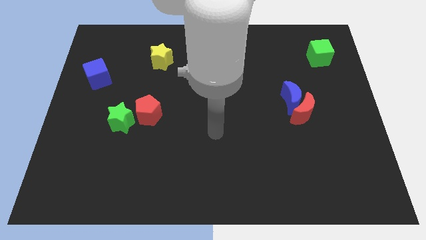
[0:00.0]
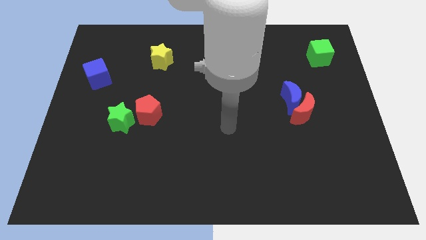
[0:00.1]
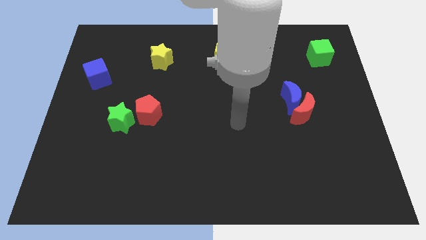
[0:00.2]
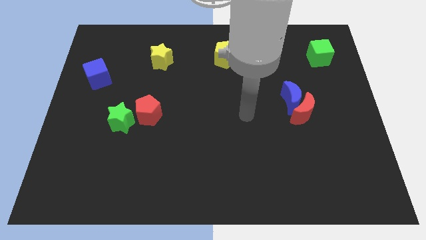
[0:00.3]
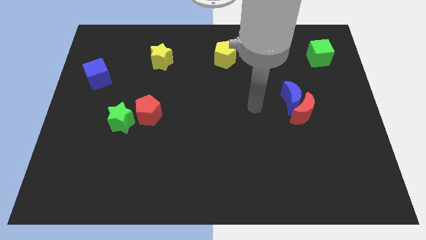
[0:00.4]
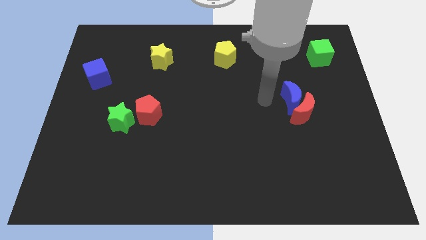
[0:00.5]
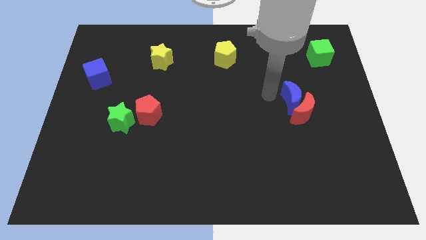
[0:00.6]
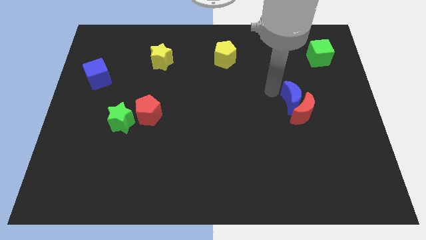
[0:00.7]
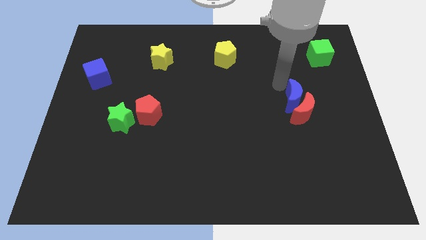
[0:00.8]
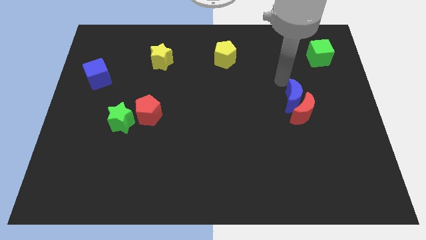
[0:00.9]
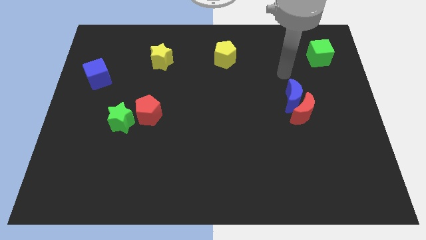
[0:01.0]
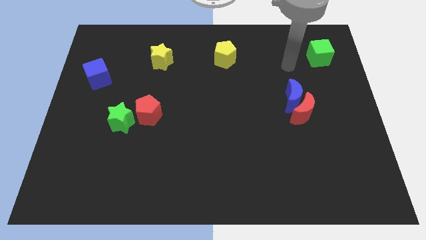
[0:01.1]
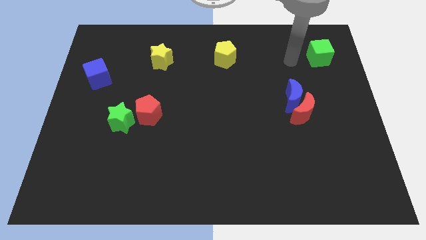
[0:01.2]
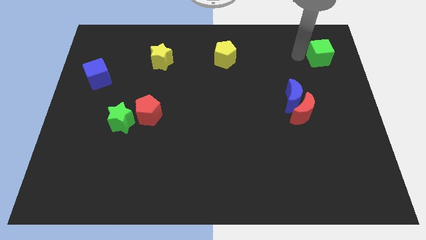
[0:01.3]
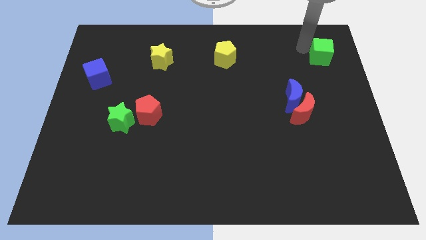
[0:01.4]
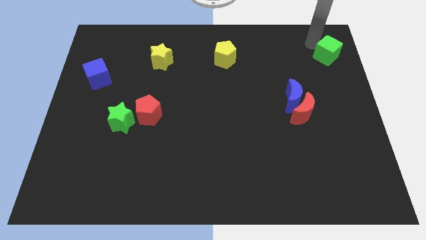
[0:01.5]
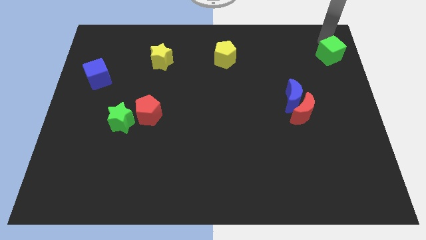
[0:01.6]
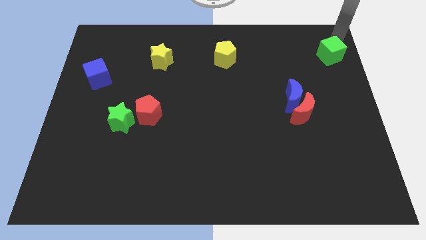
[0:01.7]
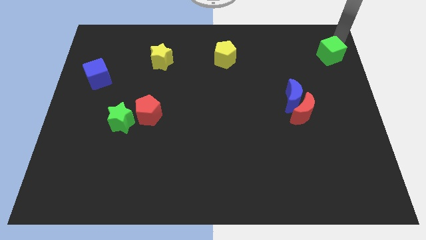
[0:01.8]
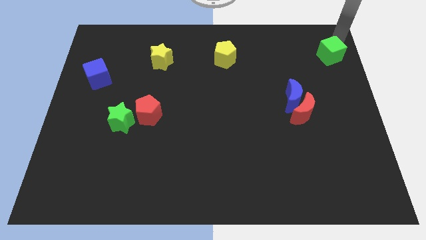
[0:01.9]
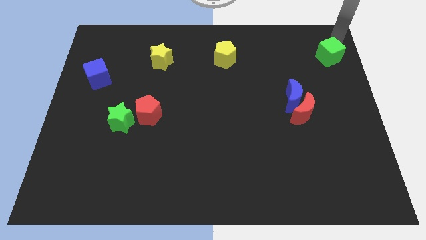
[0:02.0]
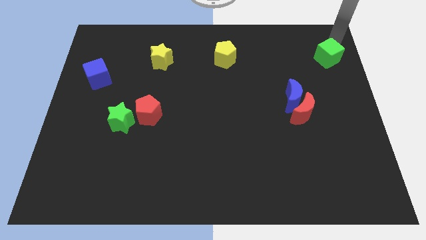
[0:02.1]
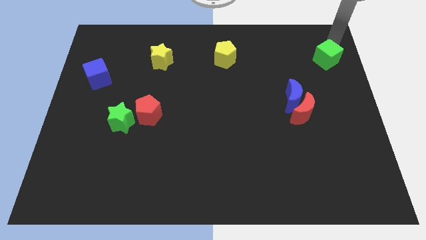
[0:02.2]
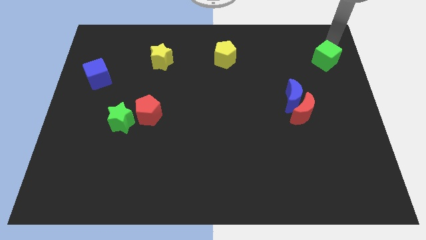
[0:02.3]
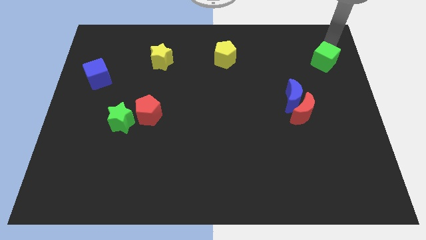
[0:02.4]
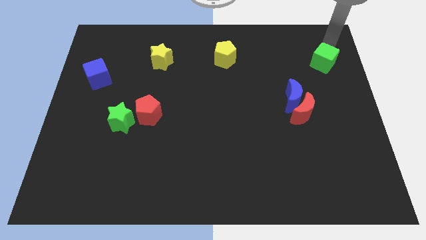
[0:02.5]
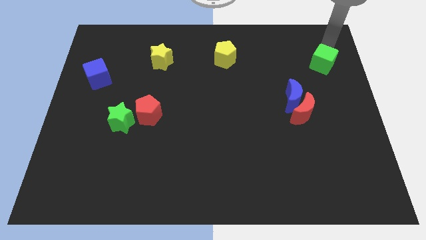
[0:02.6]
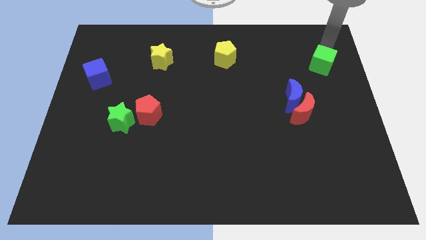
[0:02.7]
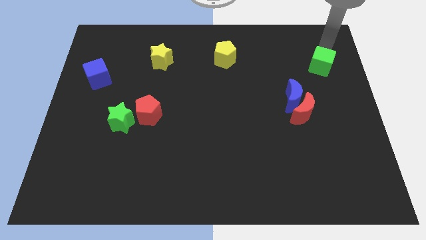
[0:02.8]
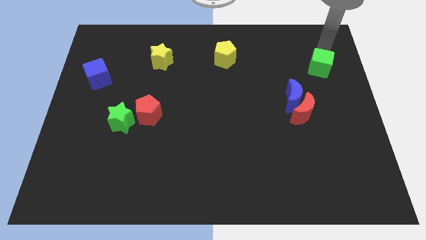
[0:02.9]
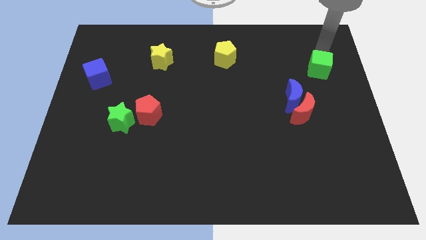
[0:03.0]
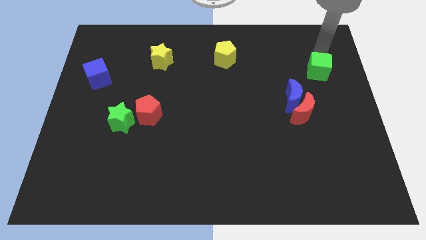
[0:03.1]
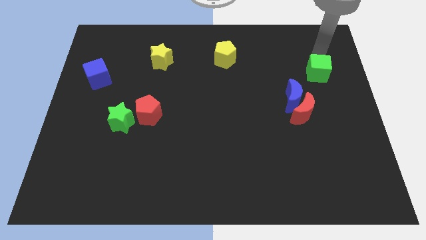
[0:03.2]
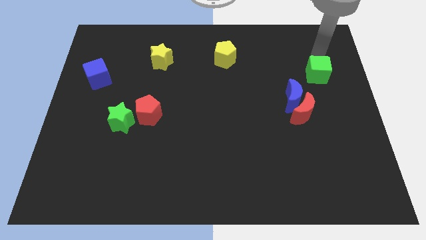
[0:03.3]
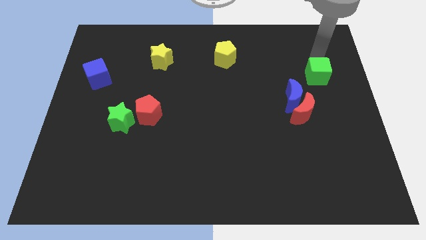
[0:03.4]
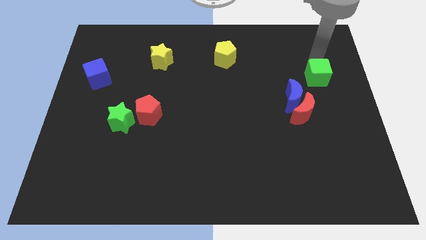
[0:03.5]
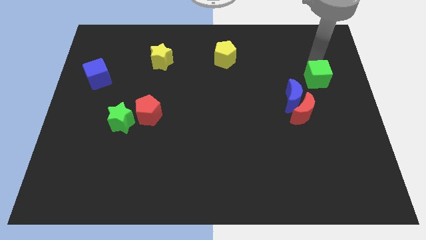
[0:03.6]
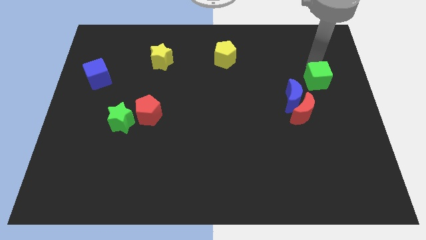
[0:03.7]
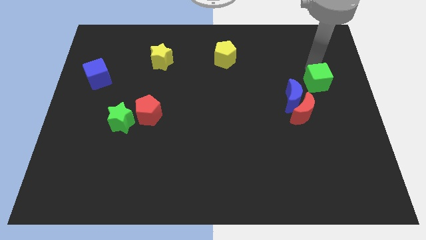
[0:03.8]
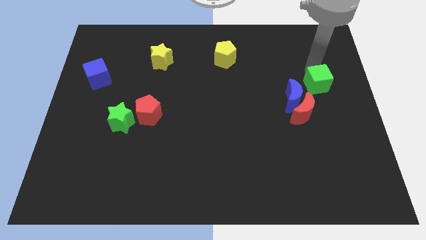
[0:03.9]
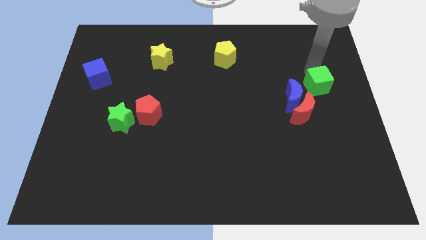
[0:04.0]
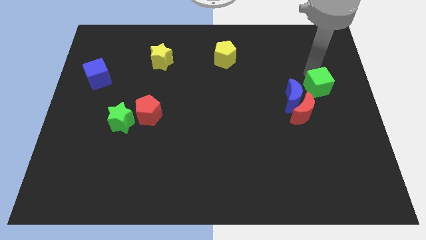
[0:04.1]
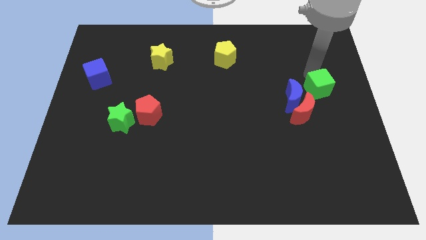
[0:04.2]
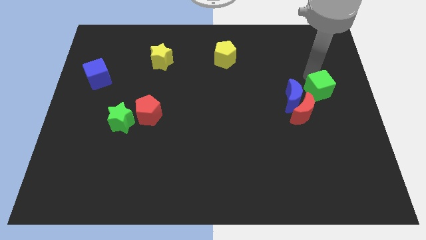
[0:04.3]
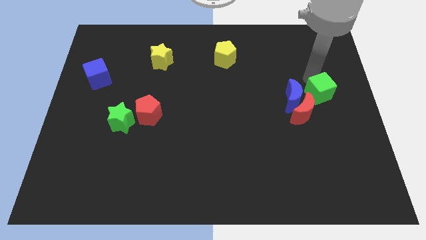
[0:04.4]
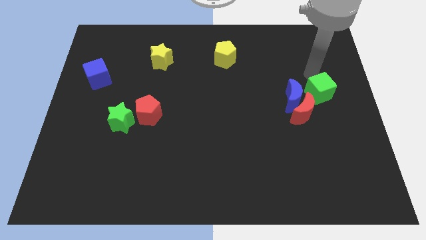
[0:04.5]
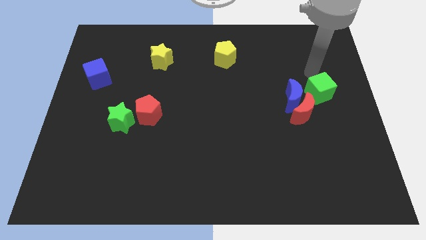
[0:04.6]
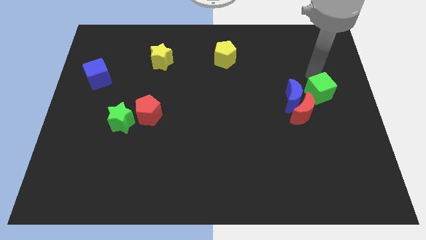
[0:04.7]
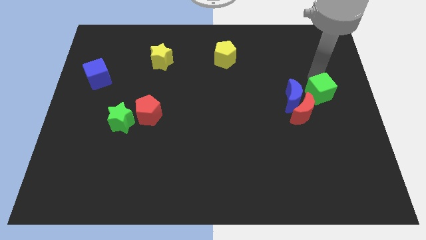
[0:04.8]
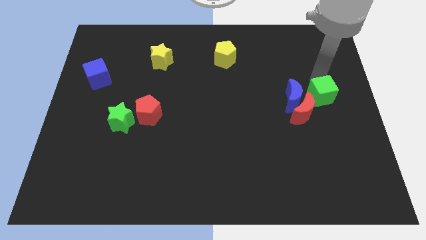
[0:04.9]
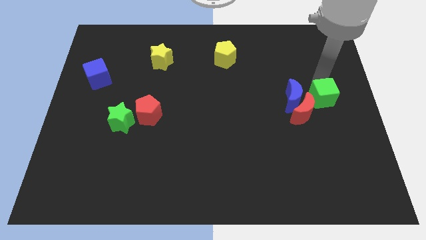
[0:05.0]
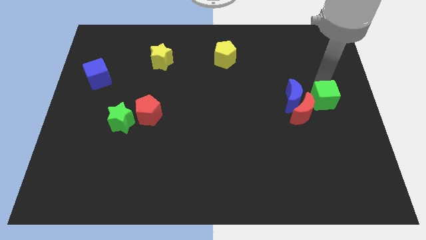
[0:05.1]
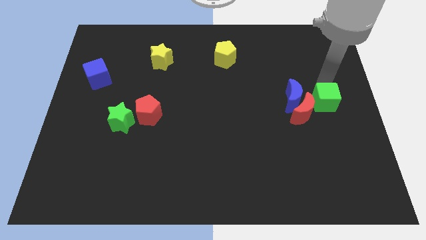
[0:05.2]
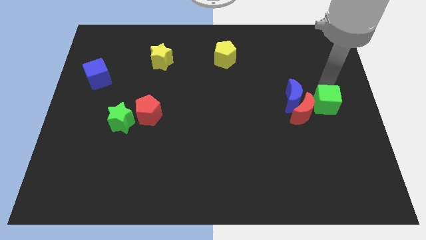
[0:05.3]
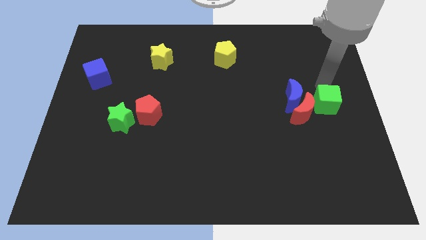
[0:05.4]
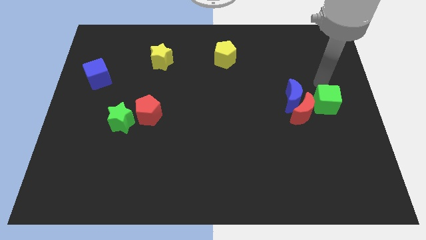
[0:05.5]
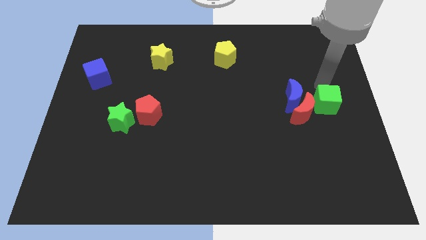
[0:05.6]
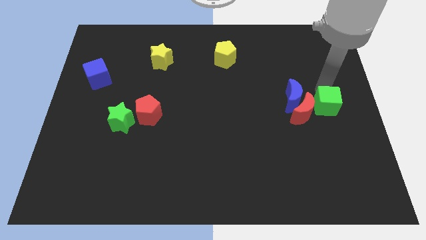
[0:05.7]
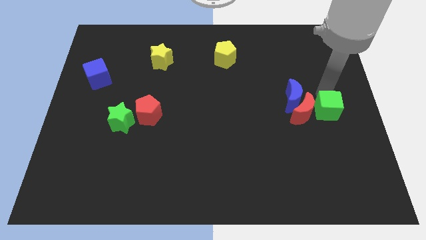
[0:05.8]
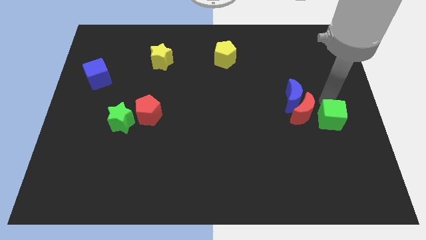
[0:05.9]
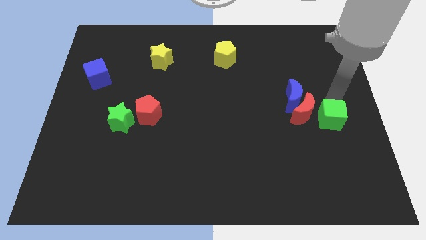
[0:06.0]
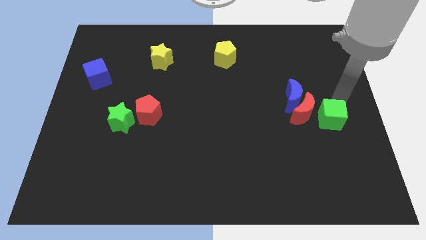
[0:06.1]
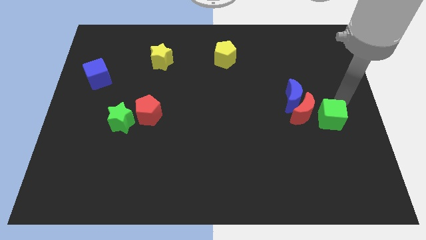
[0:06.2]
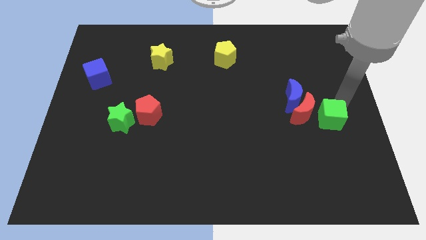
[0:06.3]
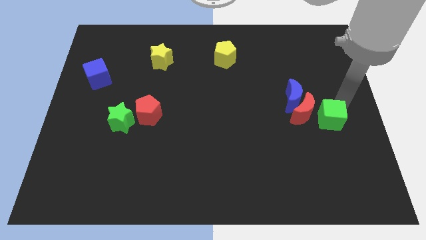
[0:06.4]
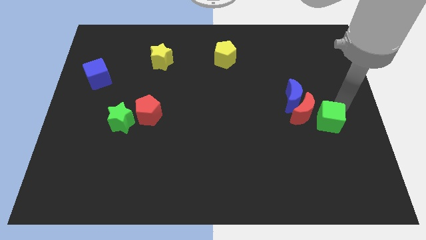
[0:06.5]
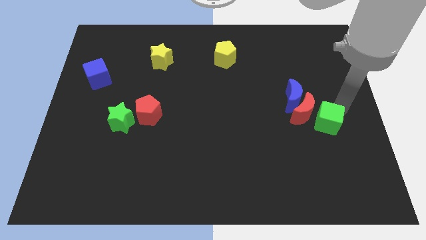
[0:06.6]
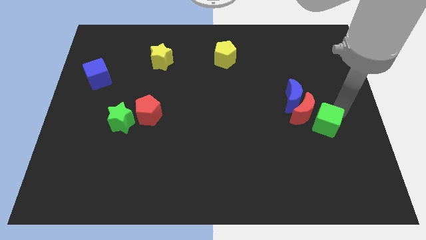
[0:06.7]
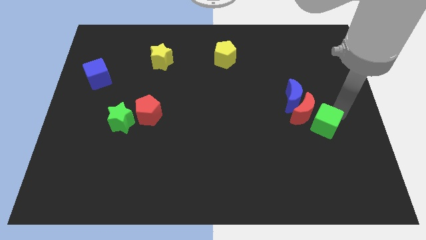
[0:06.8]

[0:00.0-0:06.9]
move the green cube to the bottom of the red moon

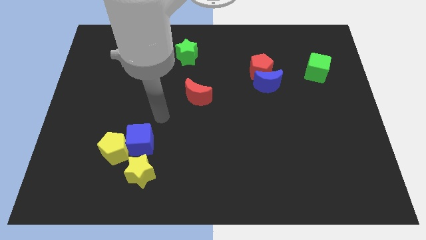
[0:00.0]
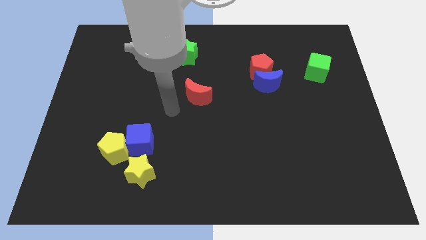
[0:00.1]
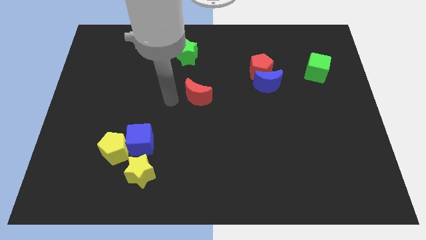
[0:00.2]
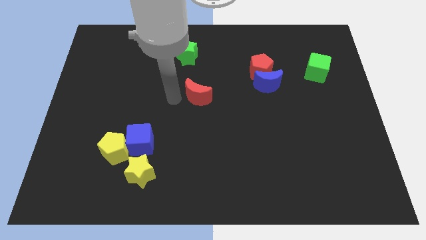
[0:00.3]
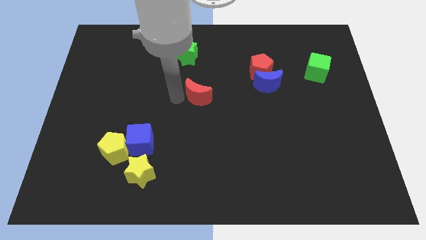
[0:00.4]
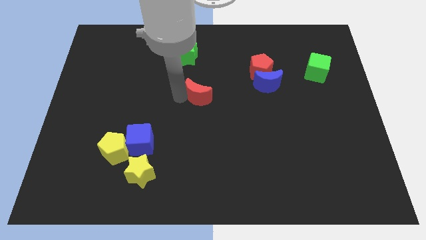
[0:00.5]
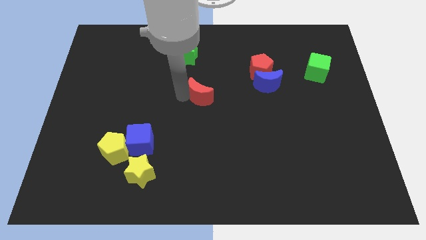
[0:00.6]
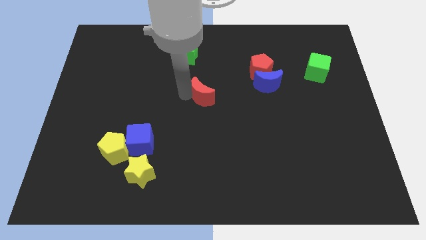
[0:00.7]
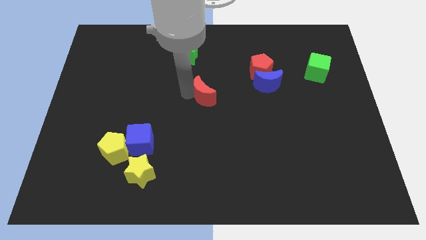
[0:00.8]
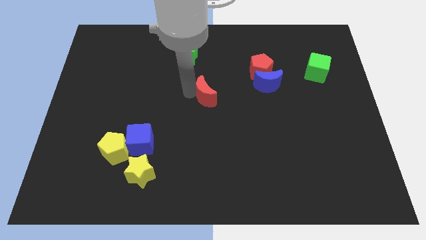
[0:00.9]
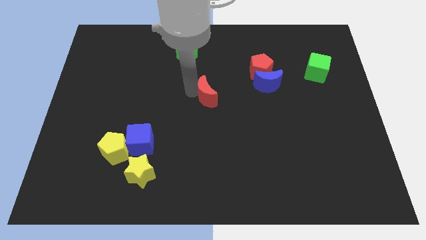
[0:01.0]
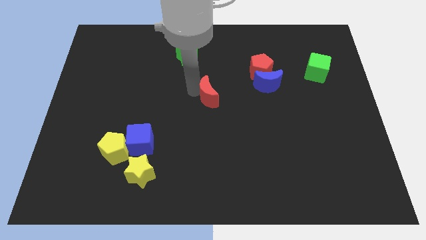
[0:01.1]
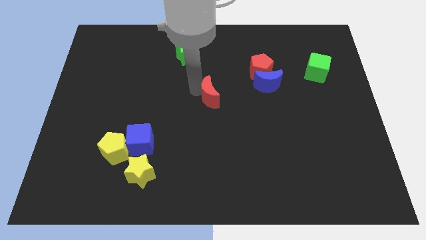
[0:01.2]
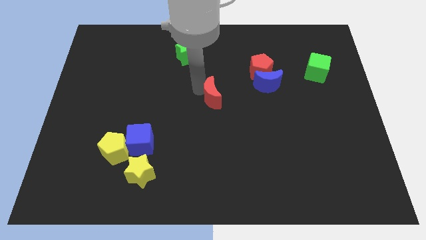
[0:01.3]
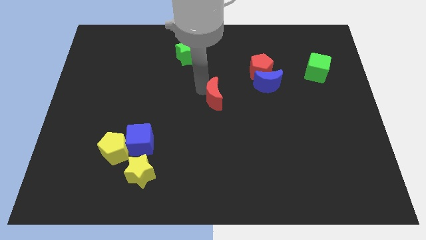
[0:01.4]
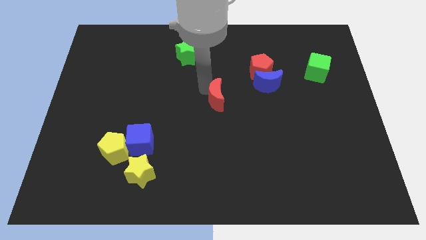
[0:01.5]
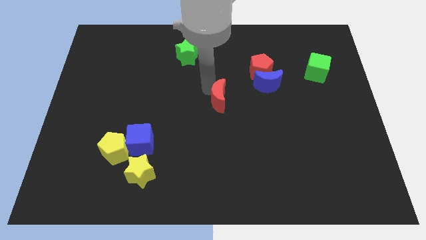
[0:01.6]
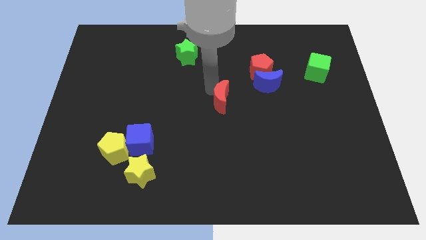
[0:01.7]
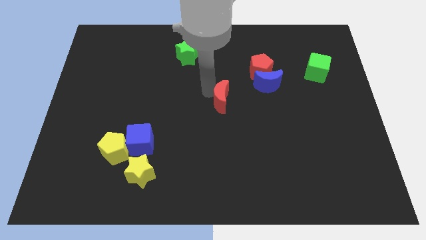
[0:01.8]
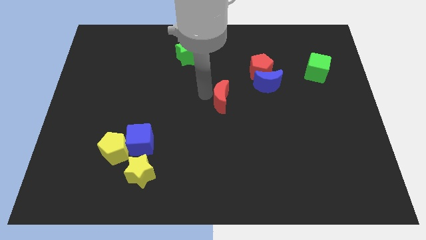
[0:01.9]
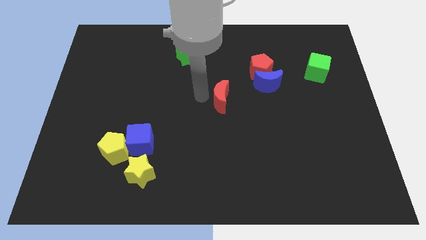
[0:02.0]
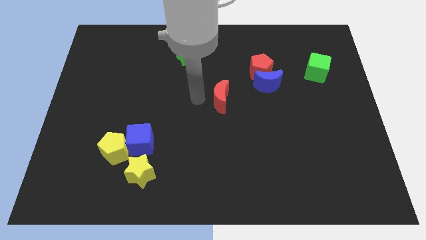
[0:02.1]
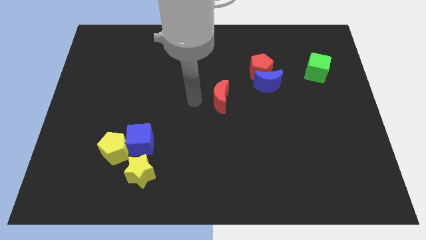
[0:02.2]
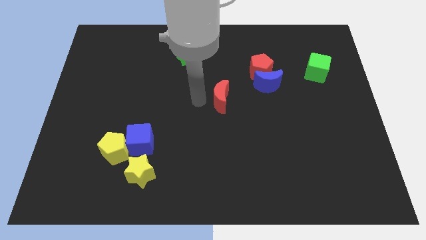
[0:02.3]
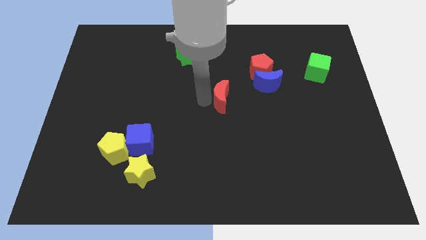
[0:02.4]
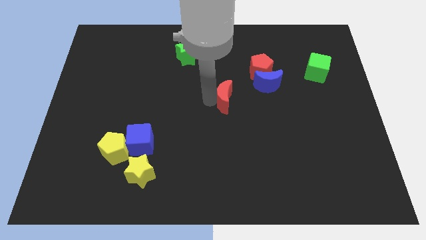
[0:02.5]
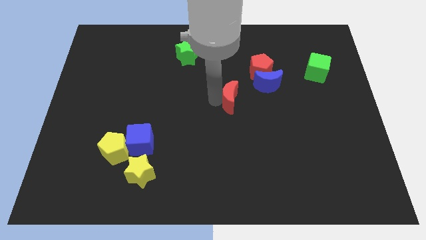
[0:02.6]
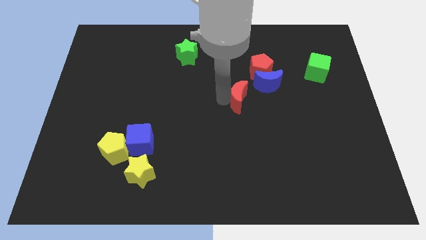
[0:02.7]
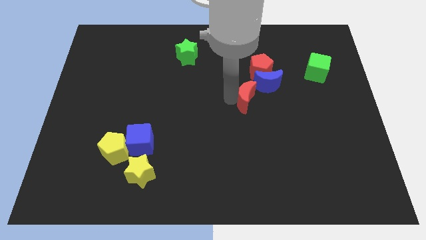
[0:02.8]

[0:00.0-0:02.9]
put the red moon below the red pentagon
